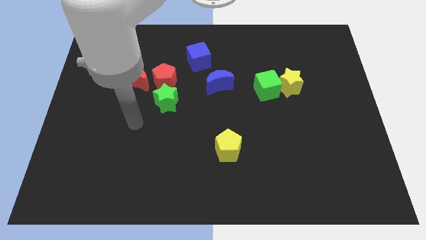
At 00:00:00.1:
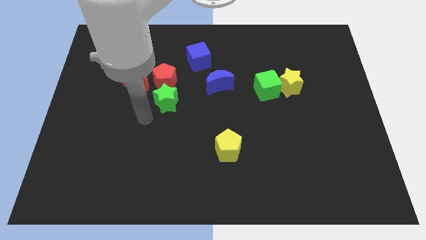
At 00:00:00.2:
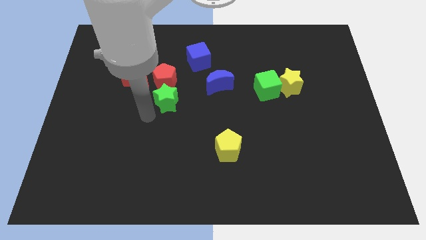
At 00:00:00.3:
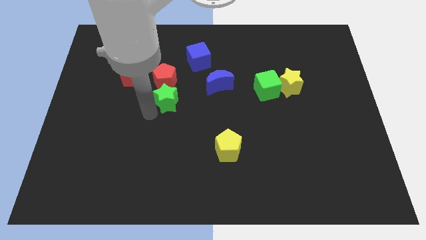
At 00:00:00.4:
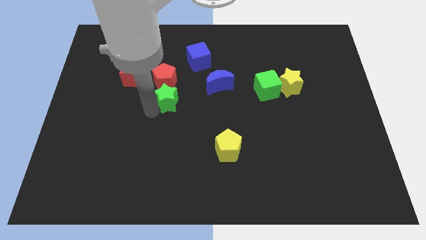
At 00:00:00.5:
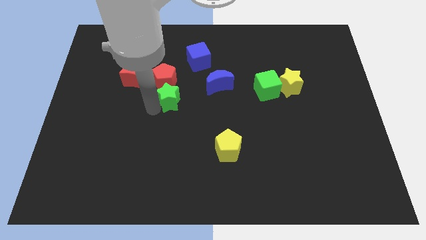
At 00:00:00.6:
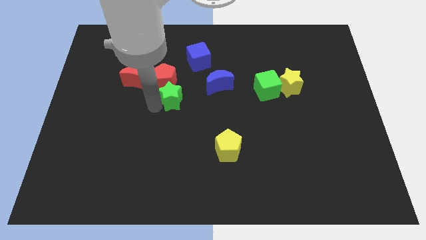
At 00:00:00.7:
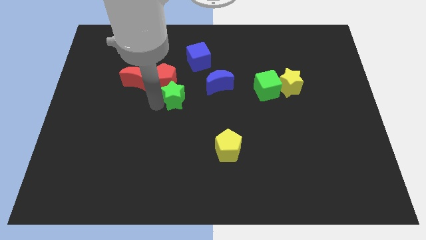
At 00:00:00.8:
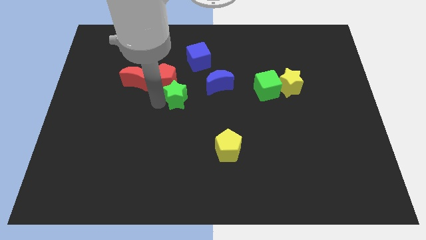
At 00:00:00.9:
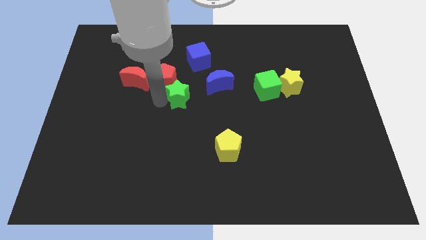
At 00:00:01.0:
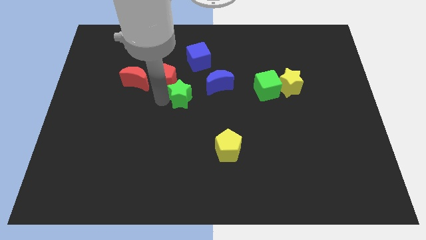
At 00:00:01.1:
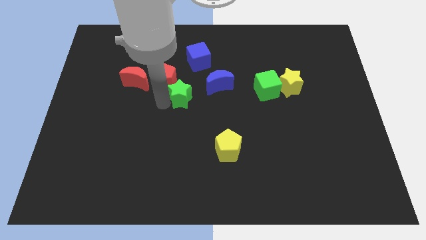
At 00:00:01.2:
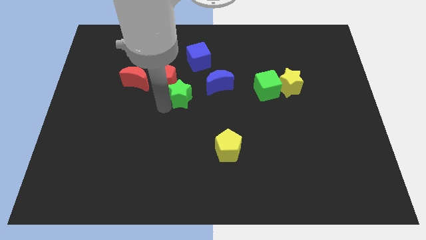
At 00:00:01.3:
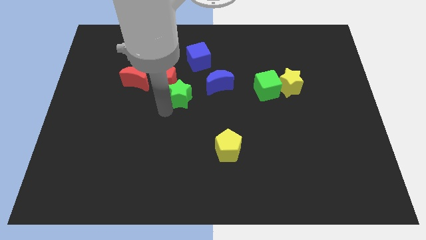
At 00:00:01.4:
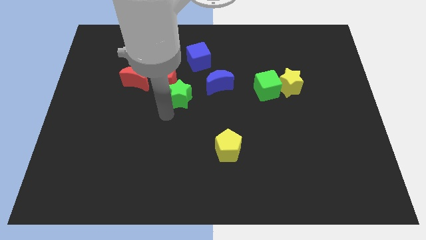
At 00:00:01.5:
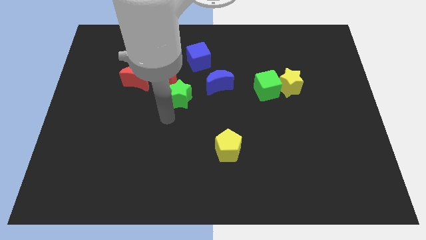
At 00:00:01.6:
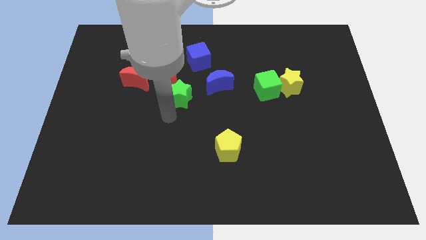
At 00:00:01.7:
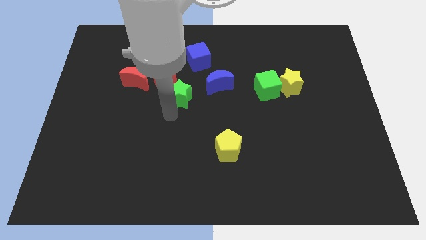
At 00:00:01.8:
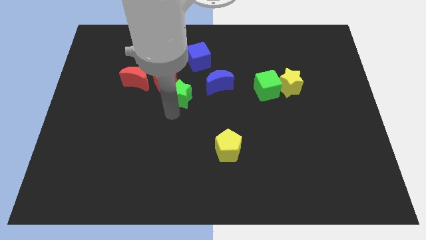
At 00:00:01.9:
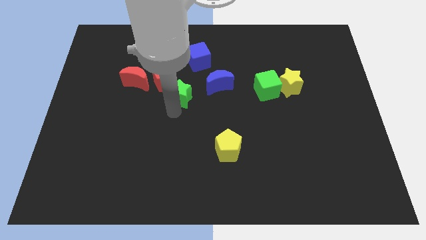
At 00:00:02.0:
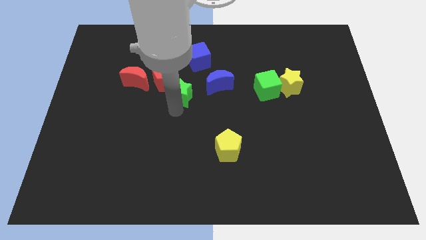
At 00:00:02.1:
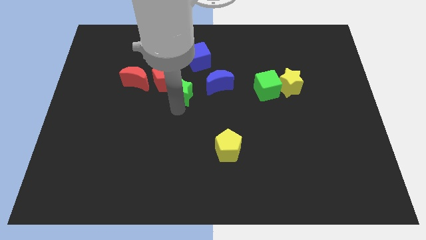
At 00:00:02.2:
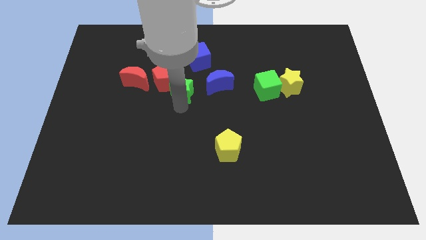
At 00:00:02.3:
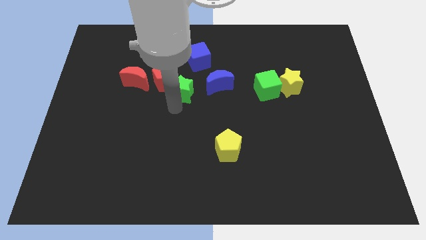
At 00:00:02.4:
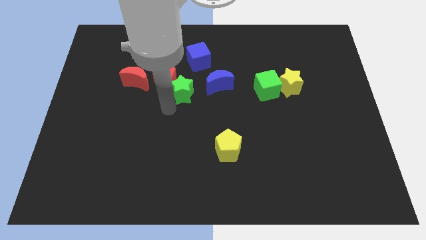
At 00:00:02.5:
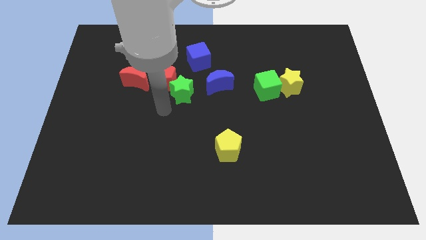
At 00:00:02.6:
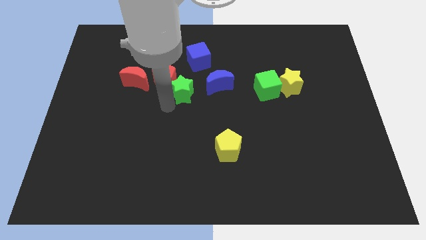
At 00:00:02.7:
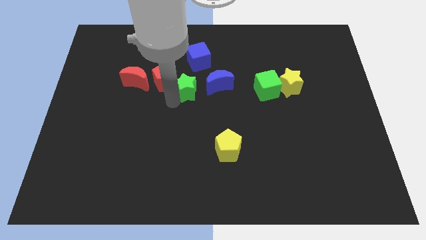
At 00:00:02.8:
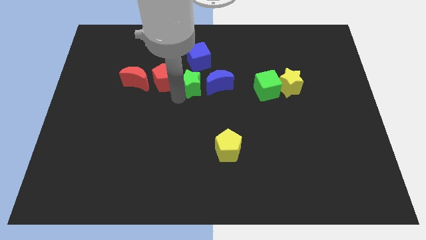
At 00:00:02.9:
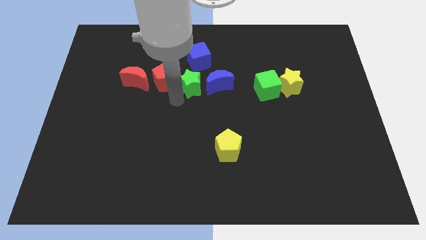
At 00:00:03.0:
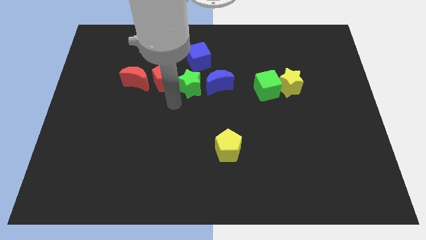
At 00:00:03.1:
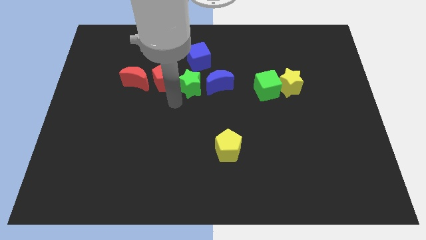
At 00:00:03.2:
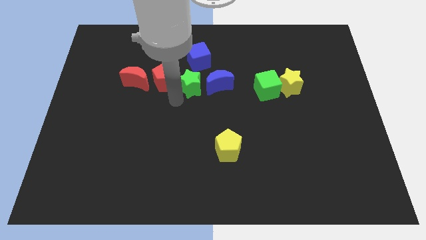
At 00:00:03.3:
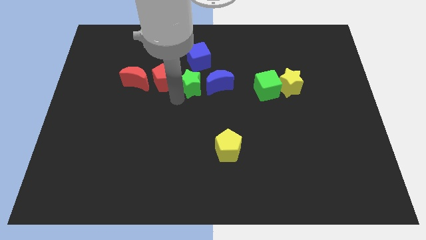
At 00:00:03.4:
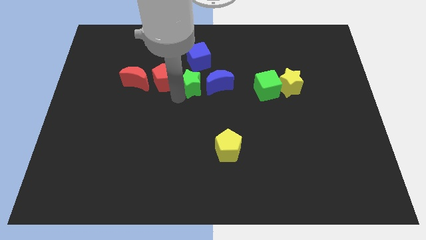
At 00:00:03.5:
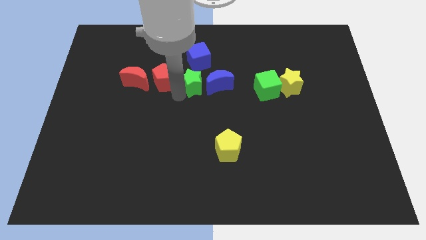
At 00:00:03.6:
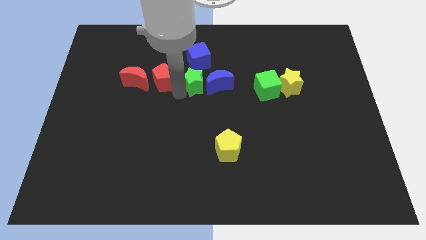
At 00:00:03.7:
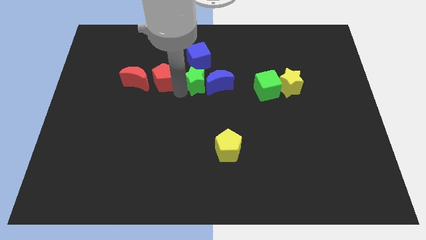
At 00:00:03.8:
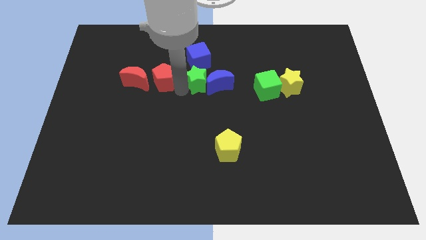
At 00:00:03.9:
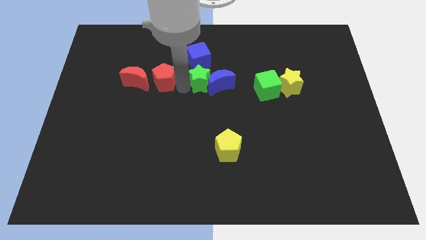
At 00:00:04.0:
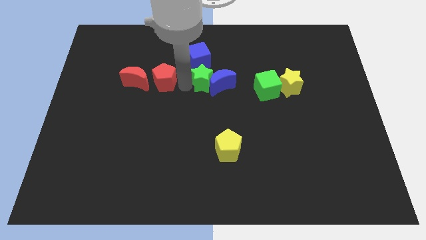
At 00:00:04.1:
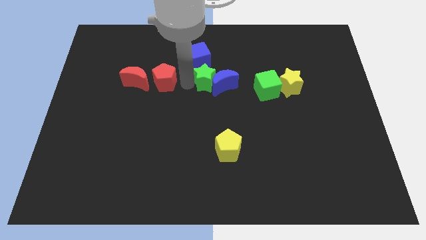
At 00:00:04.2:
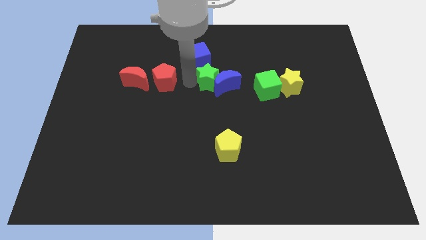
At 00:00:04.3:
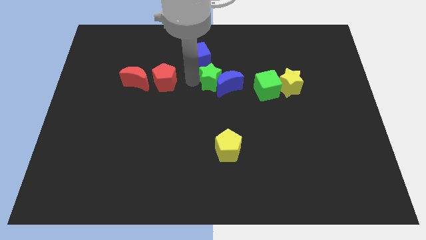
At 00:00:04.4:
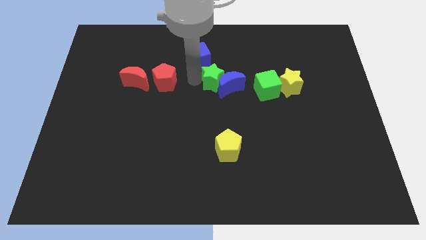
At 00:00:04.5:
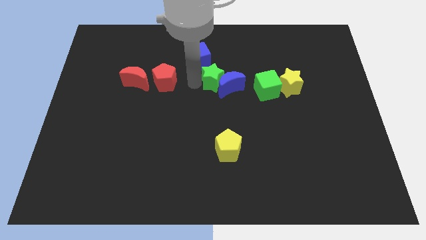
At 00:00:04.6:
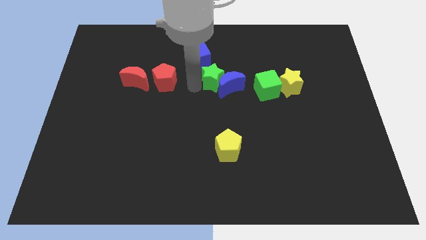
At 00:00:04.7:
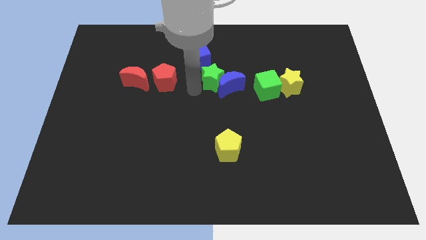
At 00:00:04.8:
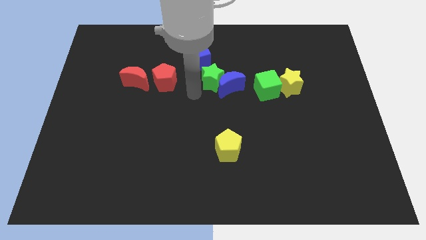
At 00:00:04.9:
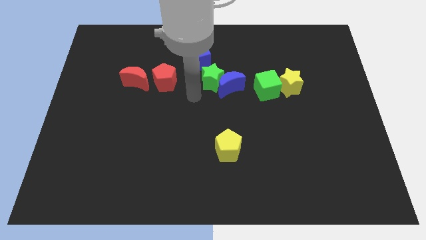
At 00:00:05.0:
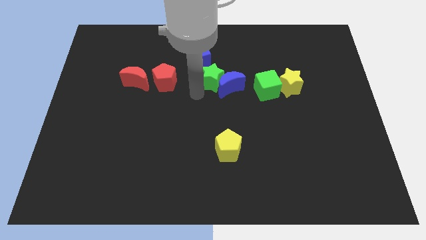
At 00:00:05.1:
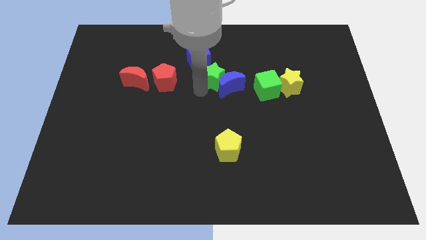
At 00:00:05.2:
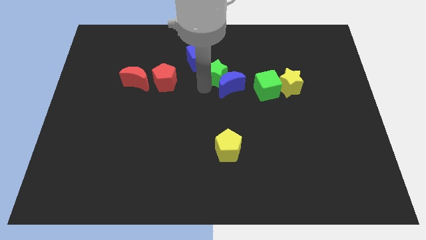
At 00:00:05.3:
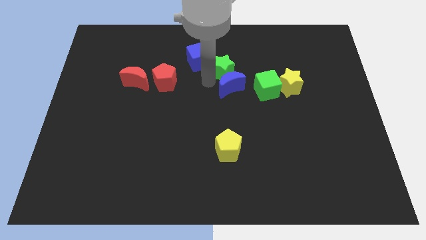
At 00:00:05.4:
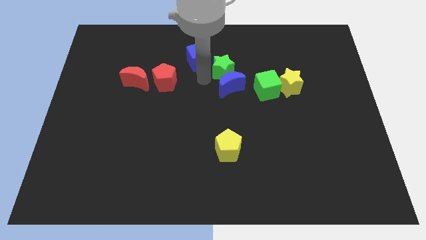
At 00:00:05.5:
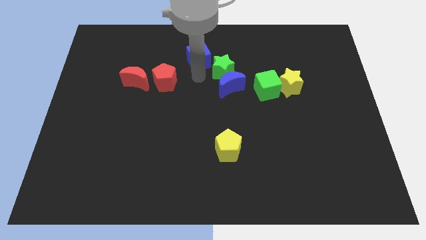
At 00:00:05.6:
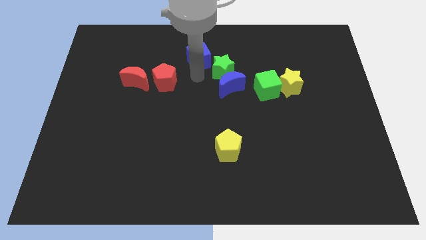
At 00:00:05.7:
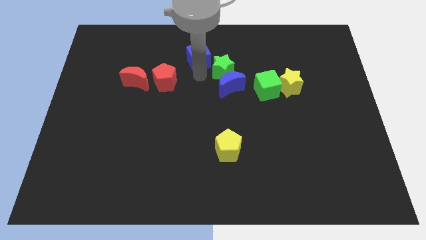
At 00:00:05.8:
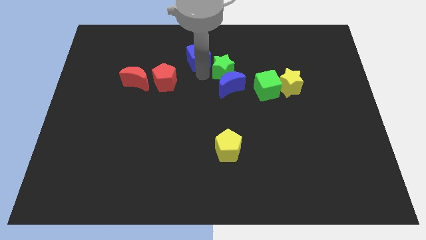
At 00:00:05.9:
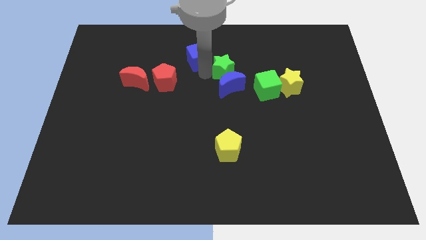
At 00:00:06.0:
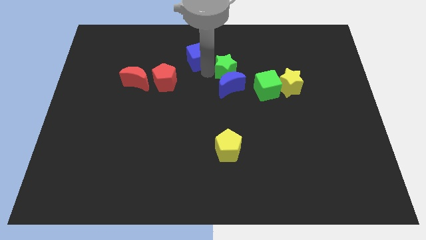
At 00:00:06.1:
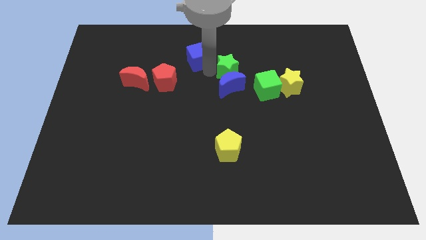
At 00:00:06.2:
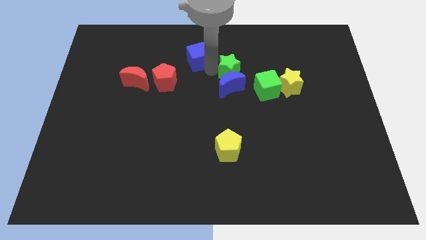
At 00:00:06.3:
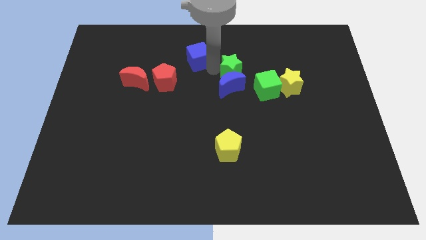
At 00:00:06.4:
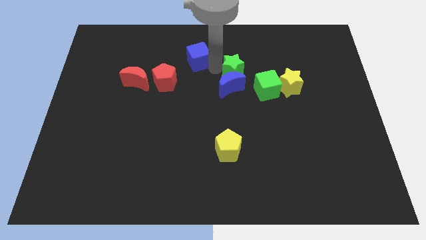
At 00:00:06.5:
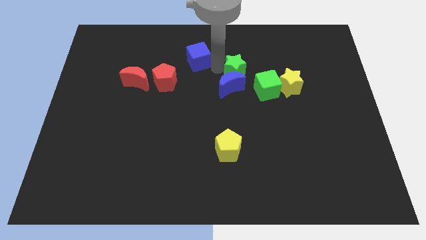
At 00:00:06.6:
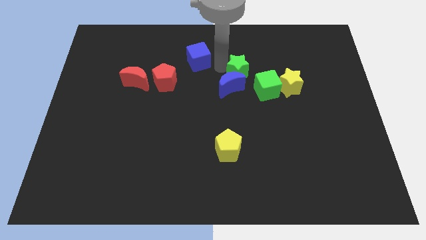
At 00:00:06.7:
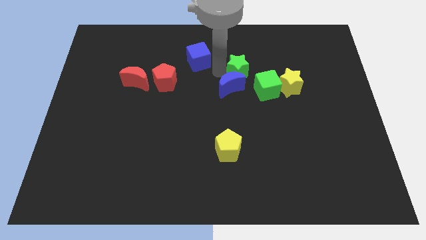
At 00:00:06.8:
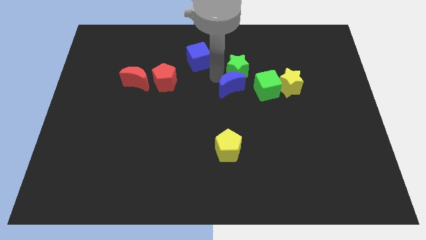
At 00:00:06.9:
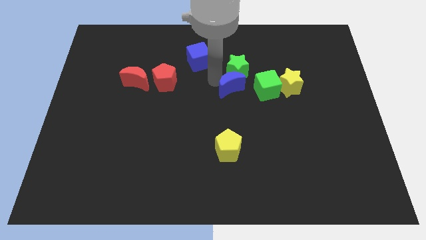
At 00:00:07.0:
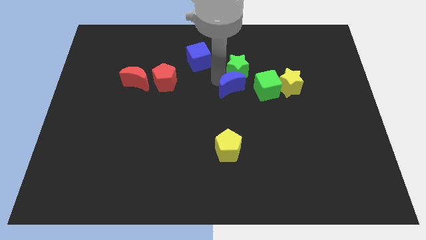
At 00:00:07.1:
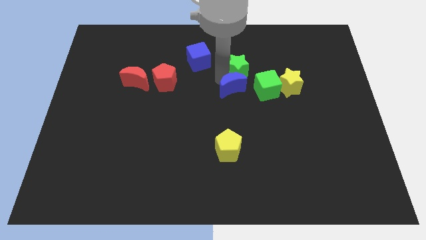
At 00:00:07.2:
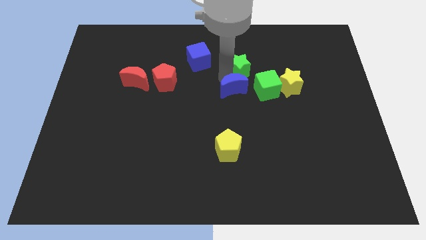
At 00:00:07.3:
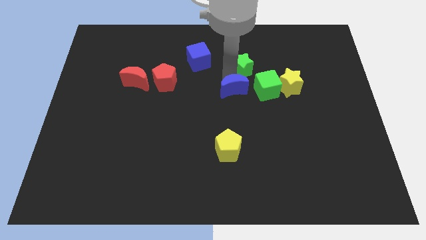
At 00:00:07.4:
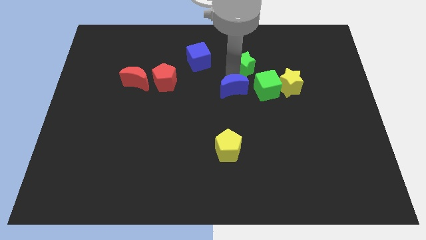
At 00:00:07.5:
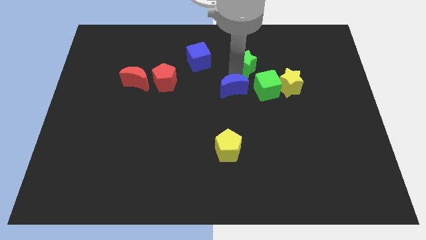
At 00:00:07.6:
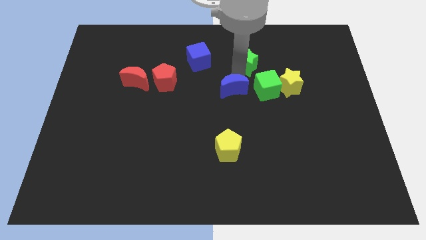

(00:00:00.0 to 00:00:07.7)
put the green star to the top of the green cube
